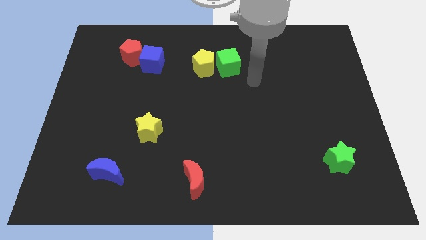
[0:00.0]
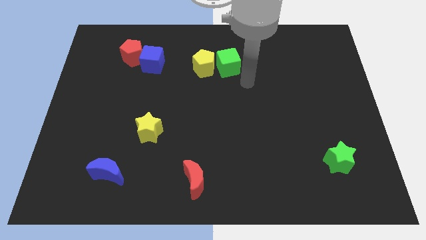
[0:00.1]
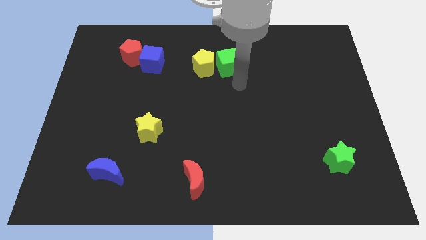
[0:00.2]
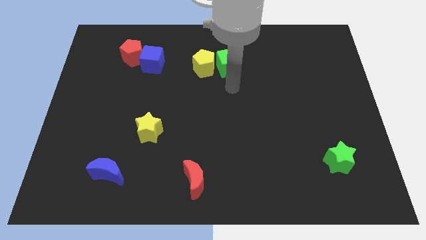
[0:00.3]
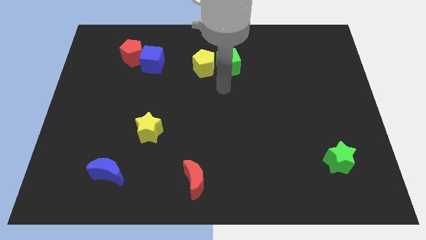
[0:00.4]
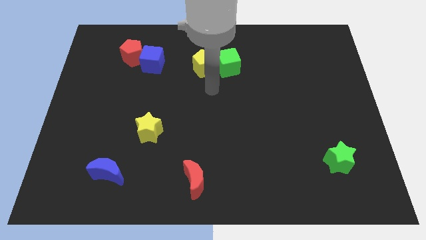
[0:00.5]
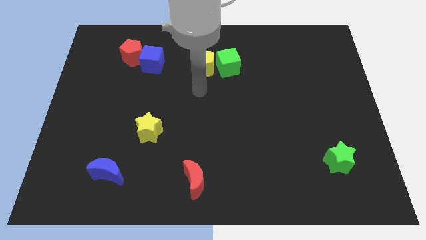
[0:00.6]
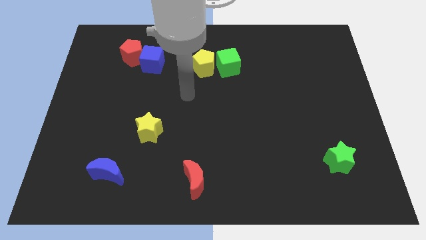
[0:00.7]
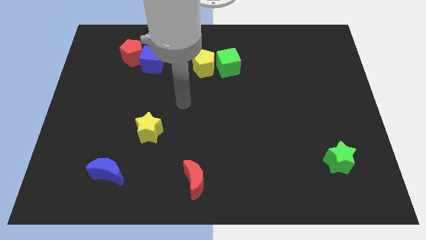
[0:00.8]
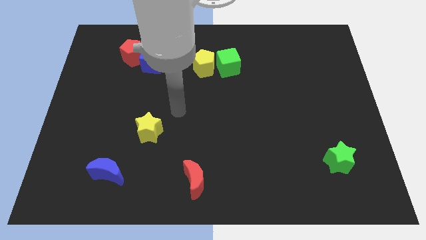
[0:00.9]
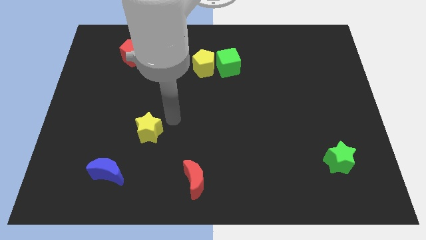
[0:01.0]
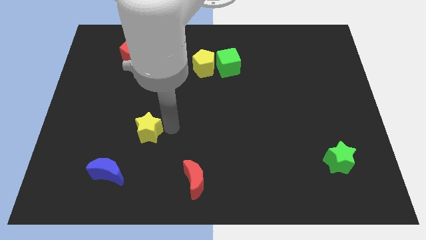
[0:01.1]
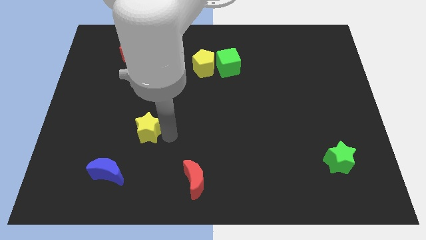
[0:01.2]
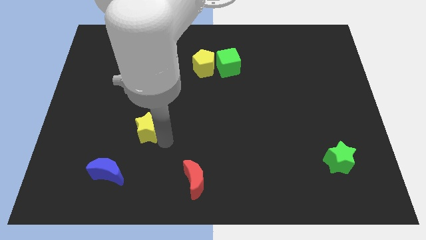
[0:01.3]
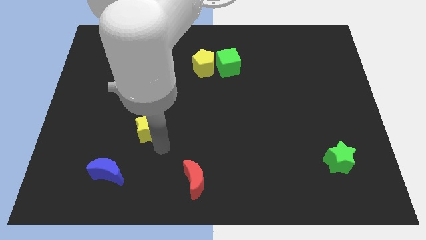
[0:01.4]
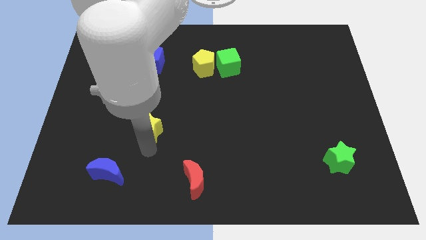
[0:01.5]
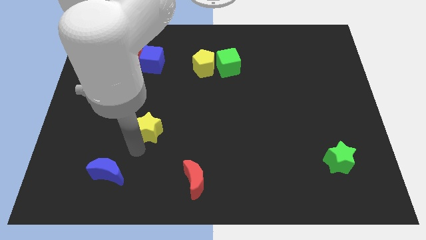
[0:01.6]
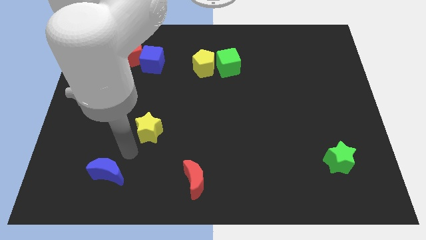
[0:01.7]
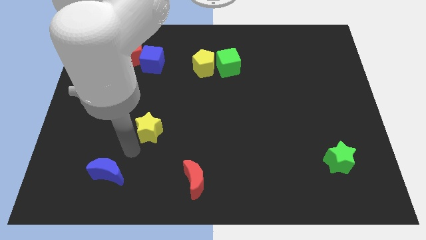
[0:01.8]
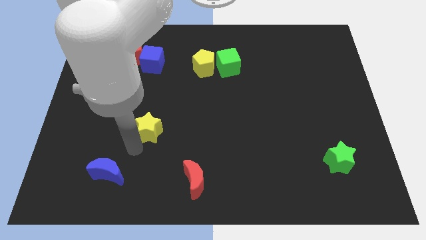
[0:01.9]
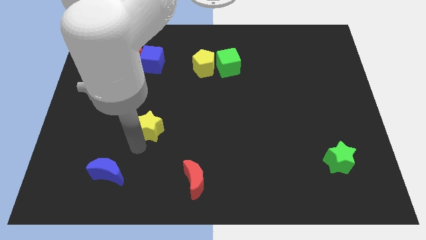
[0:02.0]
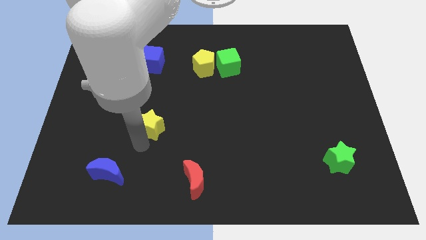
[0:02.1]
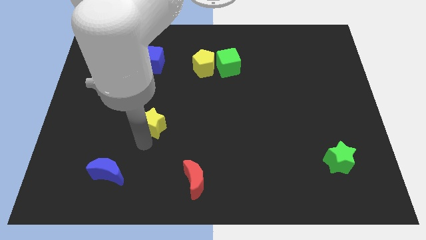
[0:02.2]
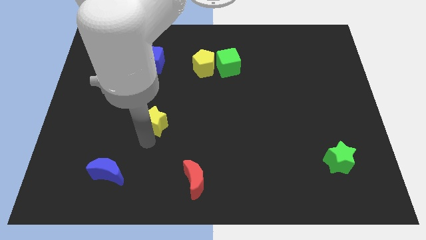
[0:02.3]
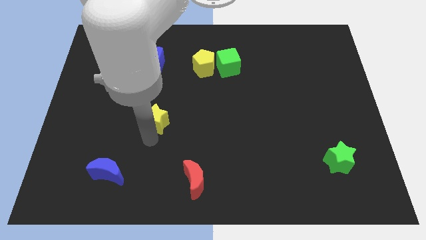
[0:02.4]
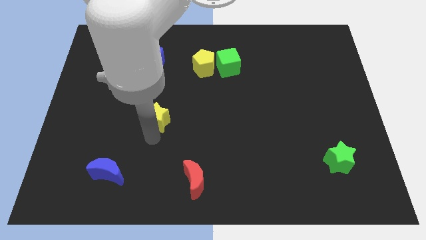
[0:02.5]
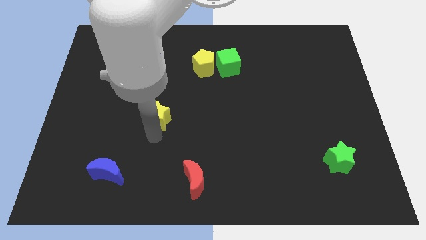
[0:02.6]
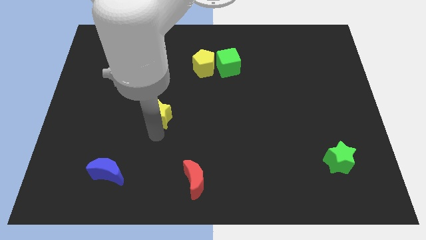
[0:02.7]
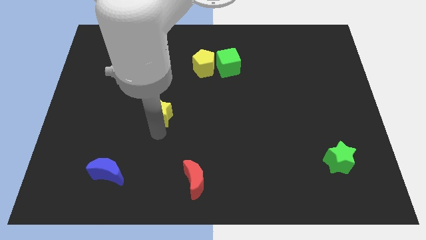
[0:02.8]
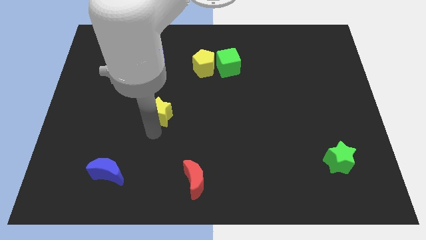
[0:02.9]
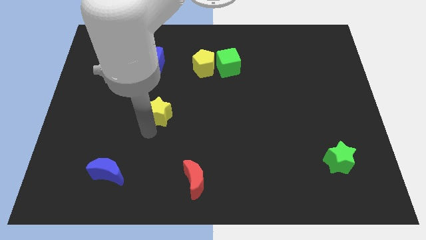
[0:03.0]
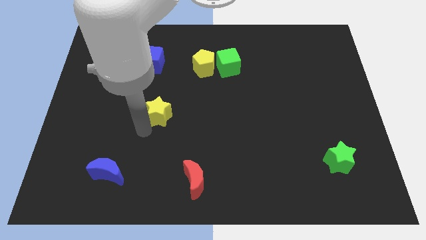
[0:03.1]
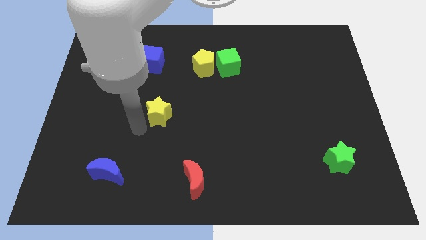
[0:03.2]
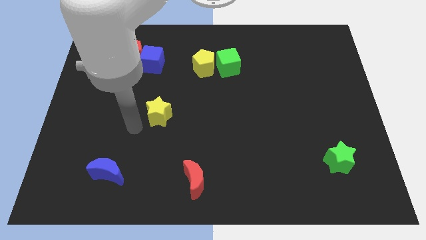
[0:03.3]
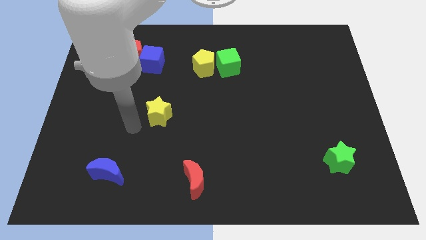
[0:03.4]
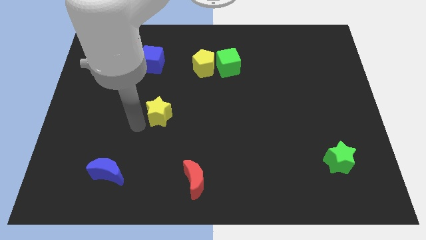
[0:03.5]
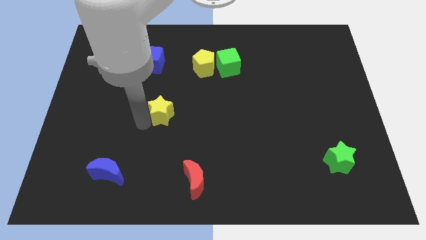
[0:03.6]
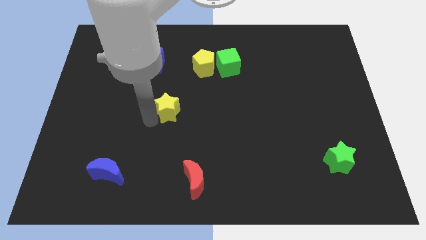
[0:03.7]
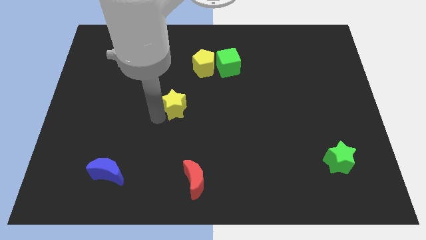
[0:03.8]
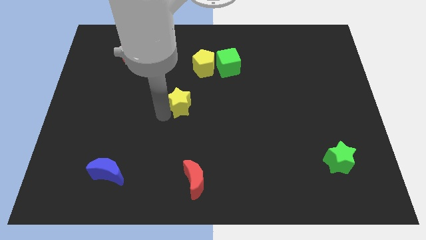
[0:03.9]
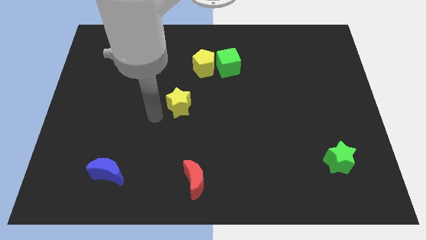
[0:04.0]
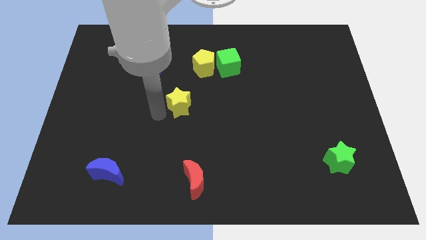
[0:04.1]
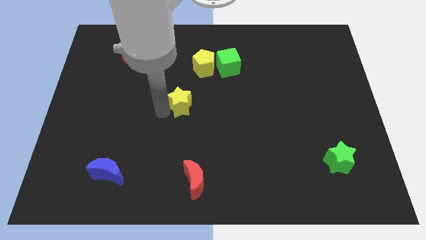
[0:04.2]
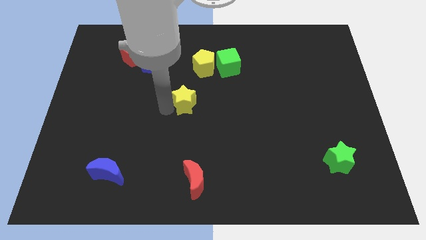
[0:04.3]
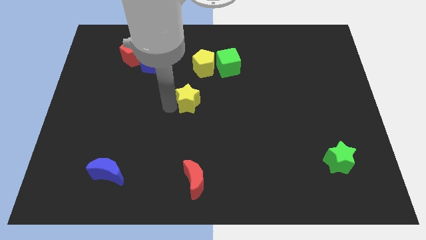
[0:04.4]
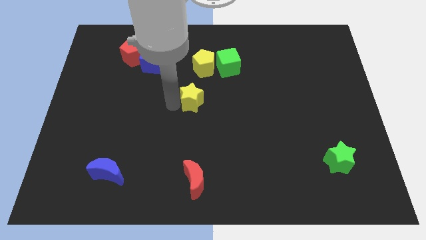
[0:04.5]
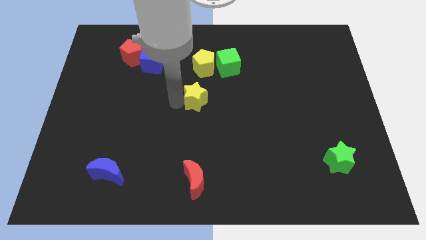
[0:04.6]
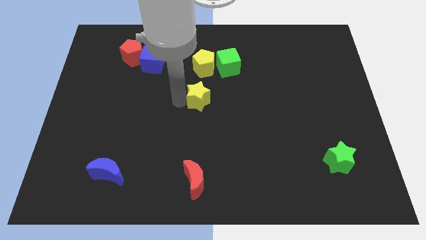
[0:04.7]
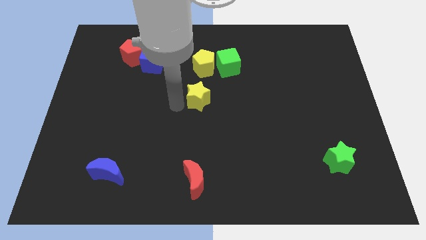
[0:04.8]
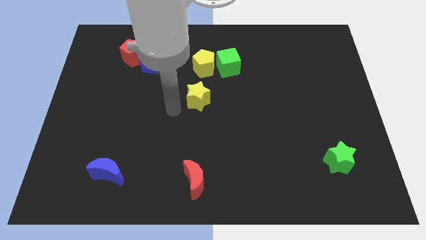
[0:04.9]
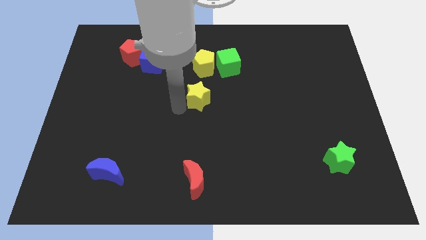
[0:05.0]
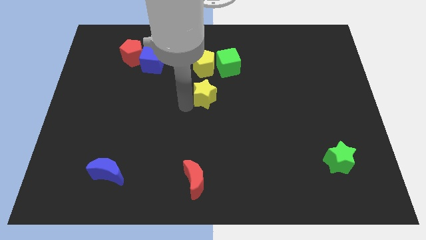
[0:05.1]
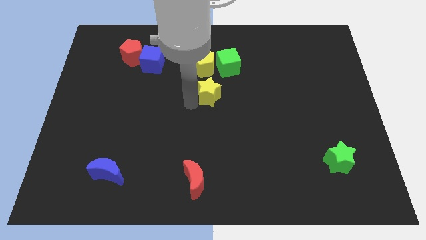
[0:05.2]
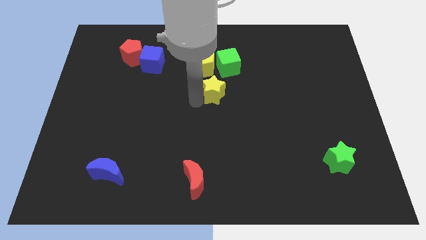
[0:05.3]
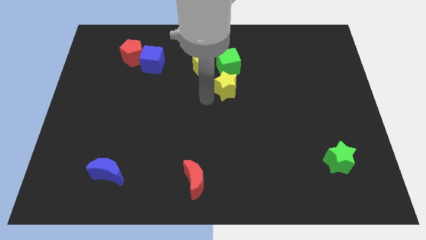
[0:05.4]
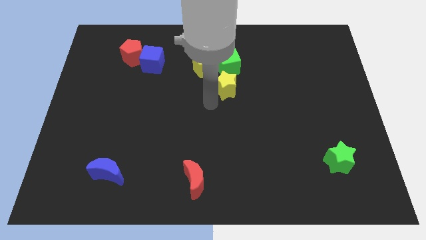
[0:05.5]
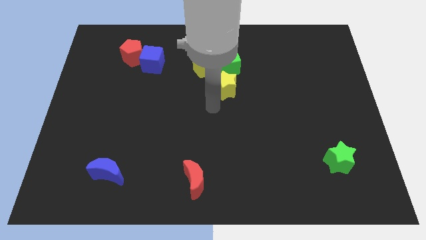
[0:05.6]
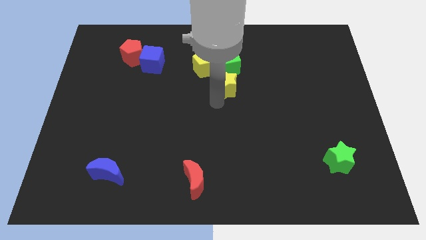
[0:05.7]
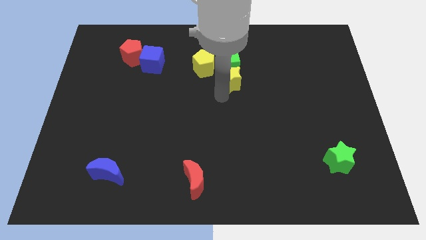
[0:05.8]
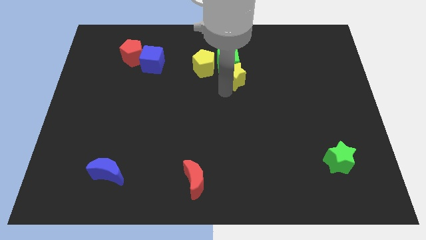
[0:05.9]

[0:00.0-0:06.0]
push the yellow star right of the yellow pentagon

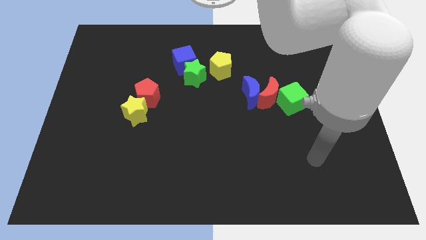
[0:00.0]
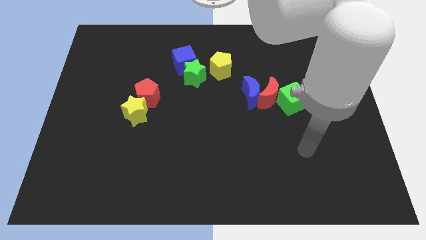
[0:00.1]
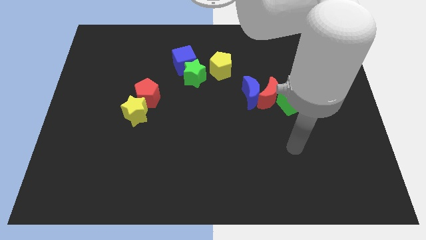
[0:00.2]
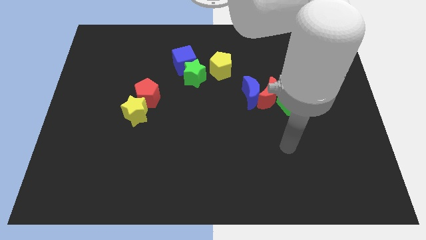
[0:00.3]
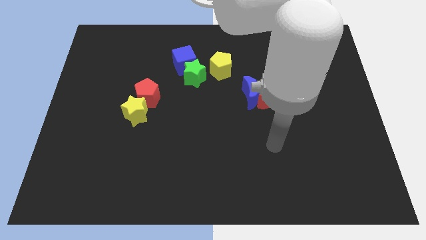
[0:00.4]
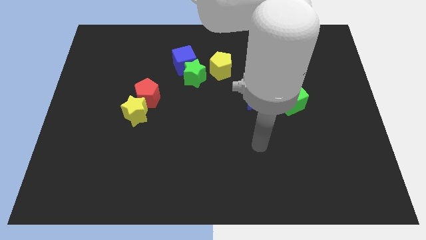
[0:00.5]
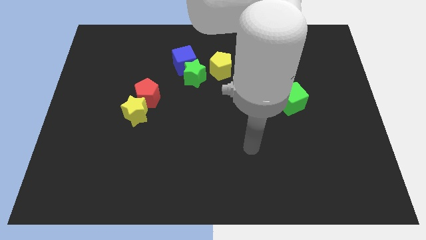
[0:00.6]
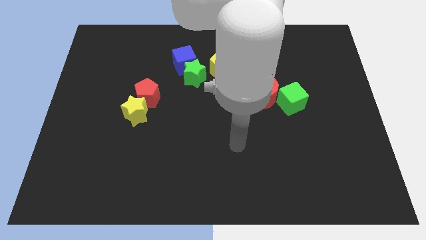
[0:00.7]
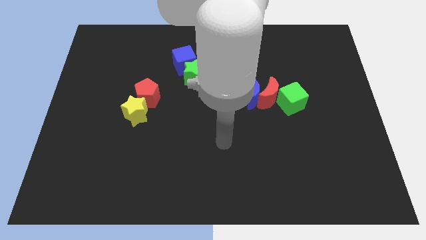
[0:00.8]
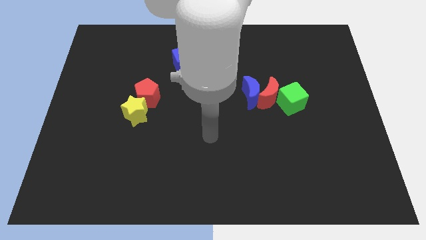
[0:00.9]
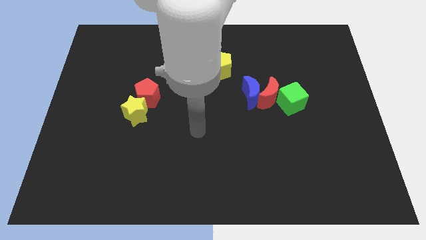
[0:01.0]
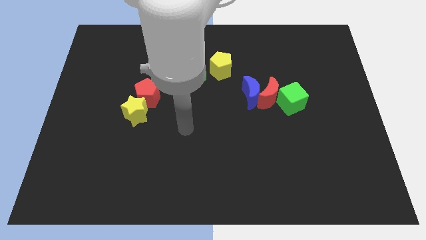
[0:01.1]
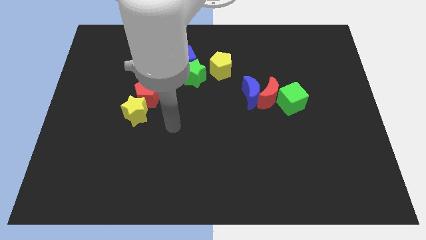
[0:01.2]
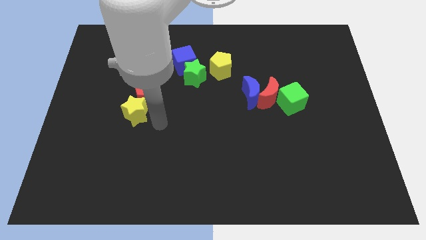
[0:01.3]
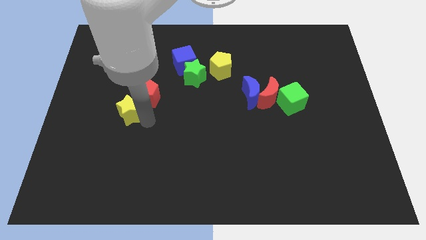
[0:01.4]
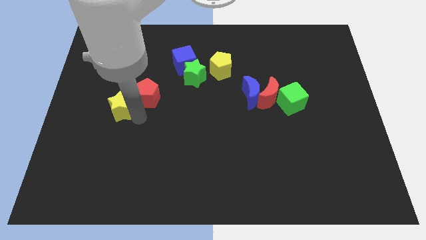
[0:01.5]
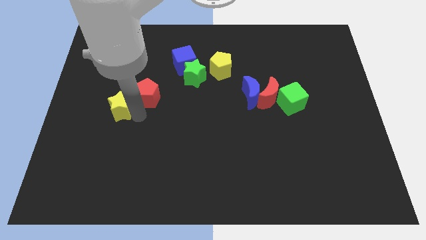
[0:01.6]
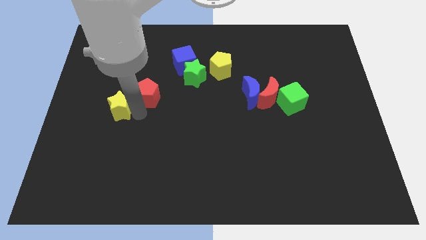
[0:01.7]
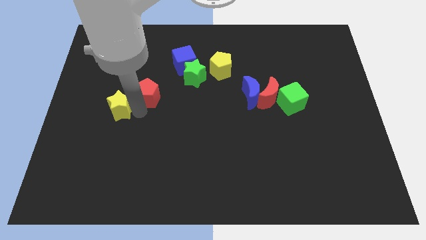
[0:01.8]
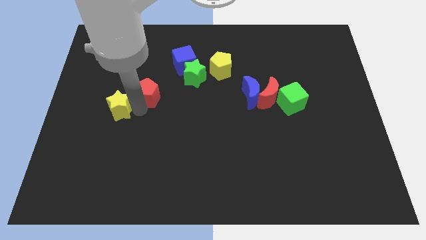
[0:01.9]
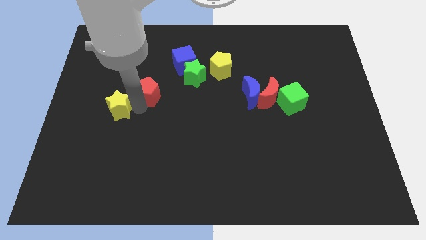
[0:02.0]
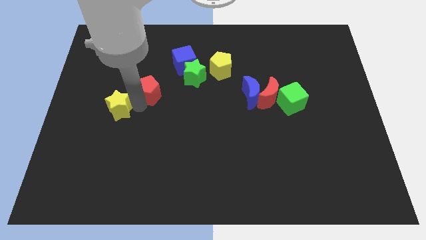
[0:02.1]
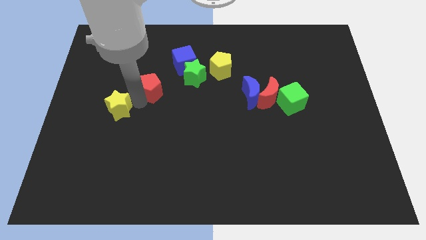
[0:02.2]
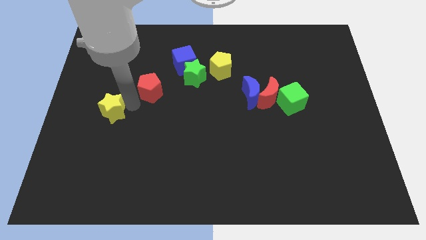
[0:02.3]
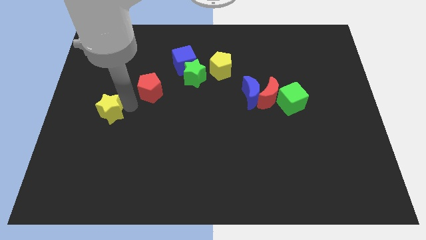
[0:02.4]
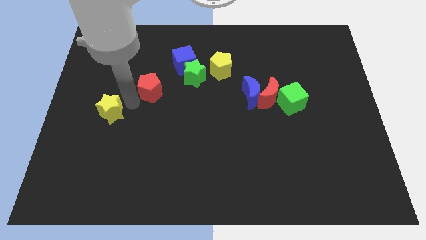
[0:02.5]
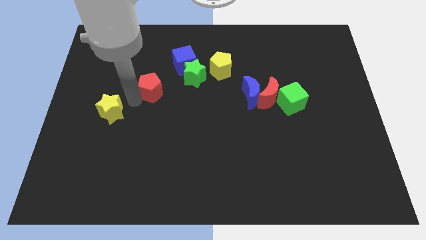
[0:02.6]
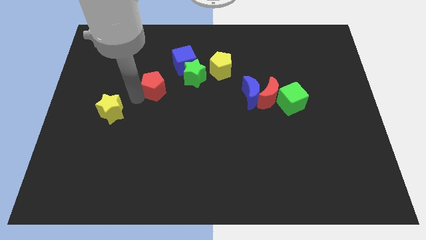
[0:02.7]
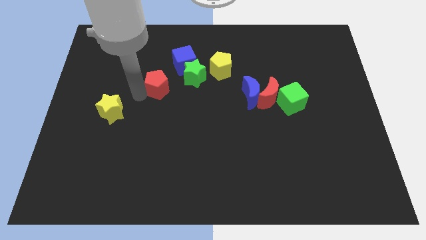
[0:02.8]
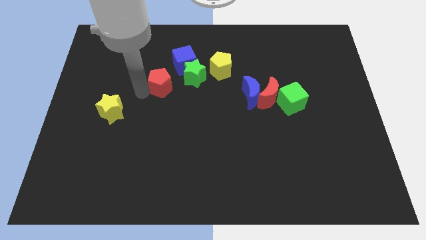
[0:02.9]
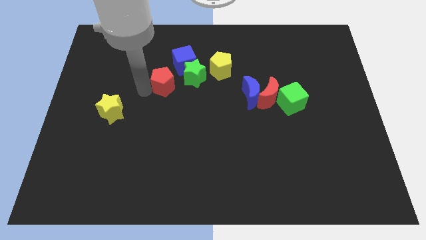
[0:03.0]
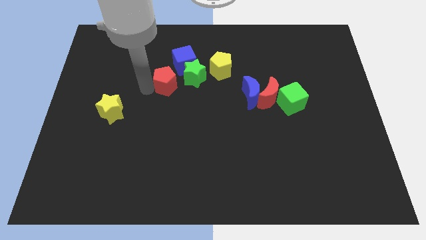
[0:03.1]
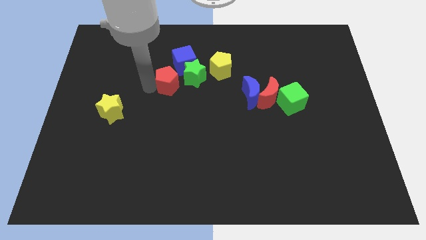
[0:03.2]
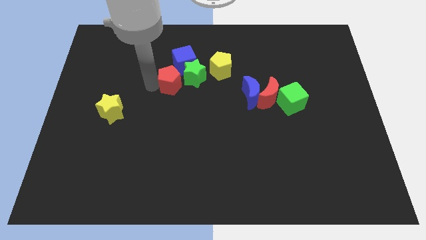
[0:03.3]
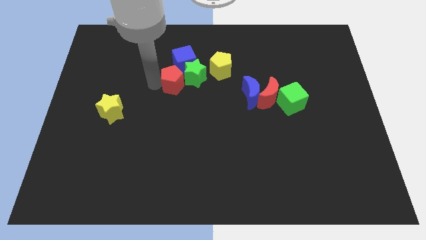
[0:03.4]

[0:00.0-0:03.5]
put the red pentagon left of the yellow pentagon
